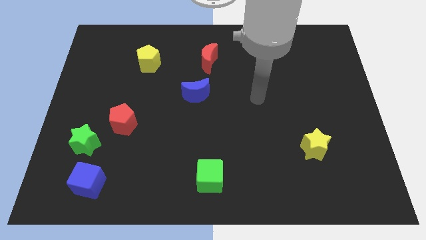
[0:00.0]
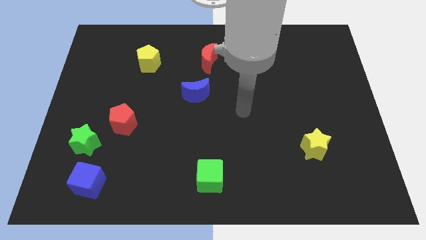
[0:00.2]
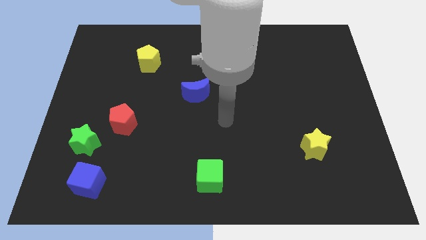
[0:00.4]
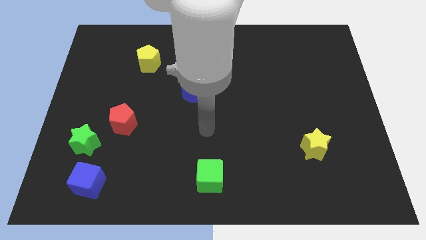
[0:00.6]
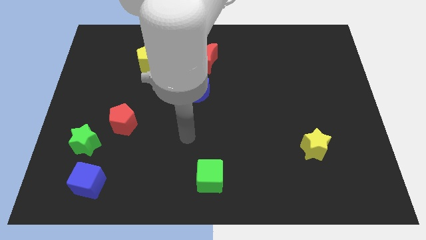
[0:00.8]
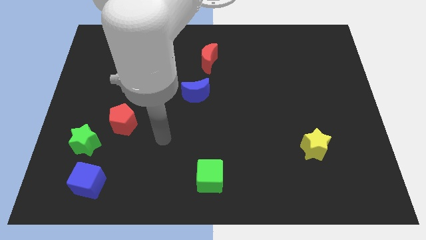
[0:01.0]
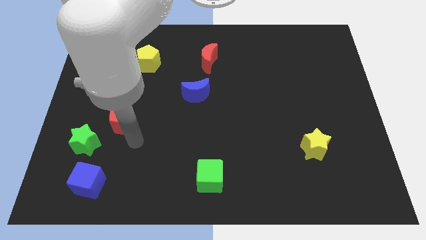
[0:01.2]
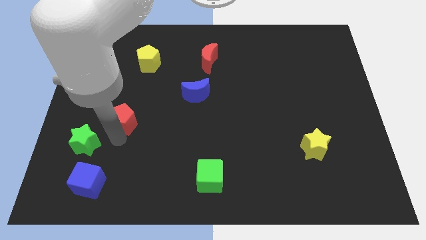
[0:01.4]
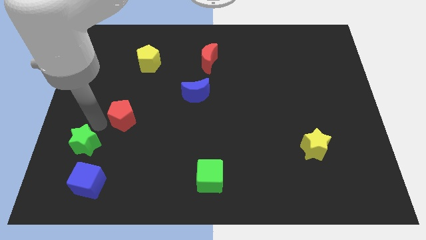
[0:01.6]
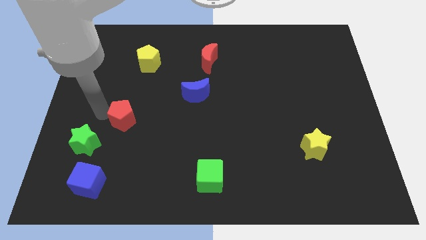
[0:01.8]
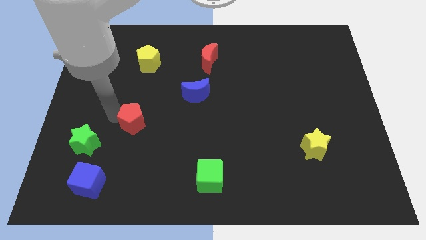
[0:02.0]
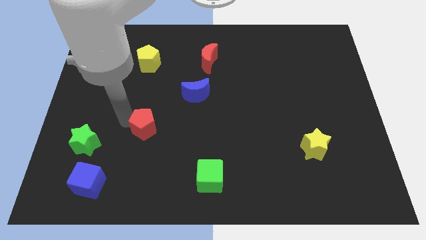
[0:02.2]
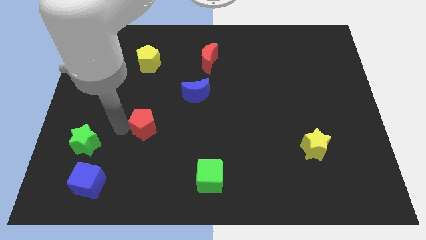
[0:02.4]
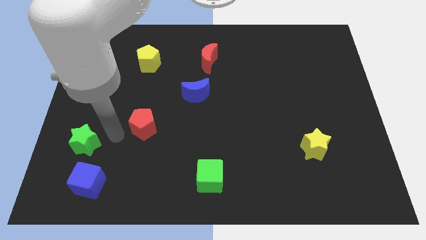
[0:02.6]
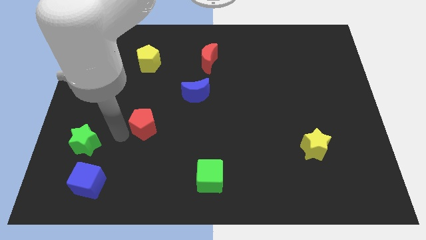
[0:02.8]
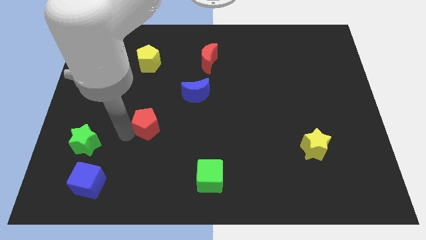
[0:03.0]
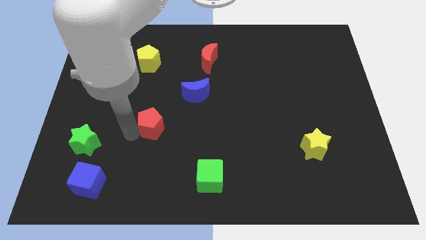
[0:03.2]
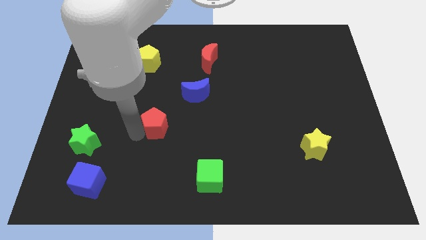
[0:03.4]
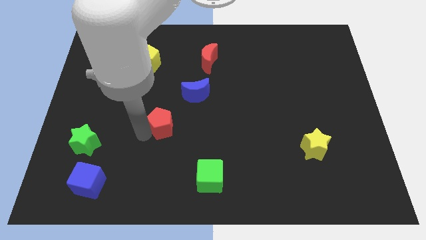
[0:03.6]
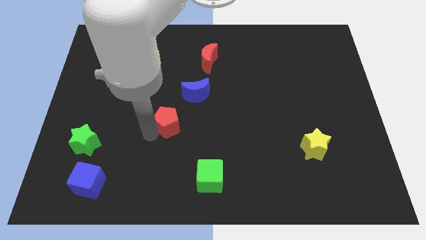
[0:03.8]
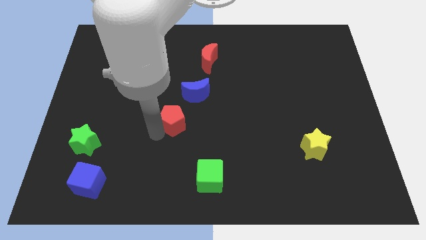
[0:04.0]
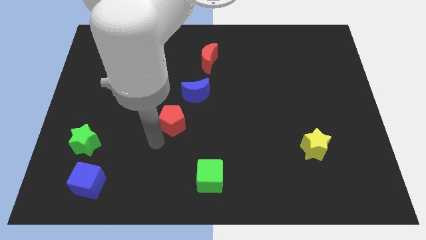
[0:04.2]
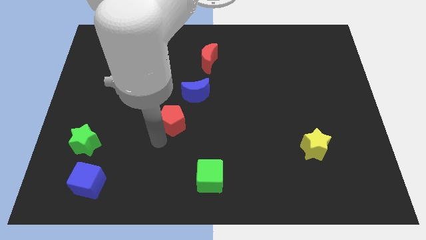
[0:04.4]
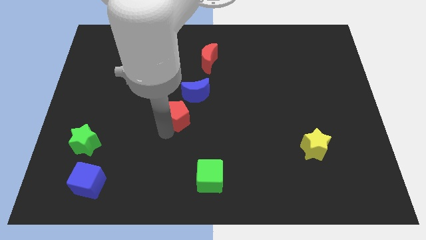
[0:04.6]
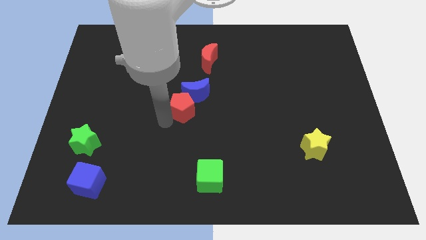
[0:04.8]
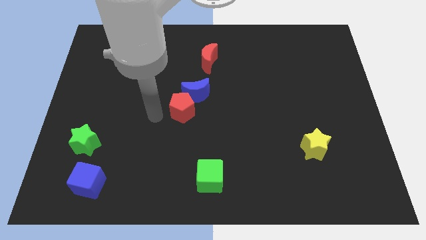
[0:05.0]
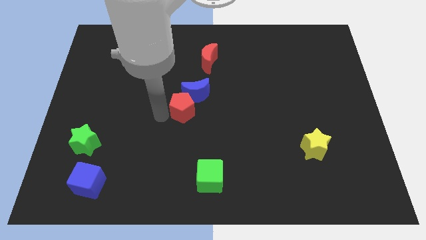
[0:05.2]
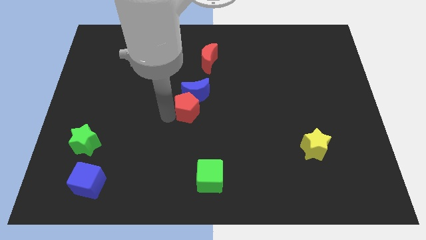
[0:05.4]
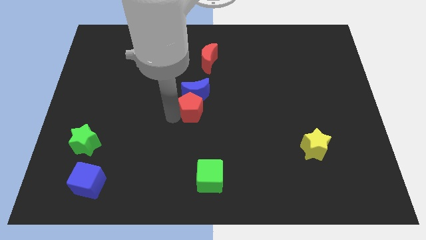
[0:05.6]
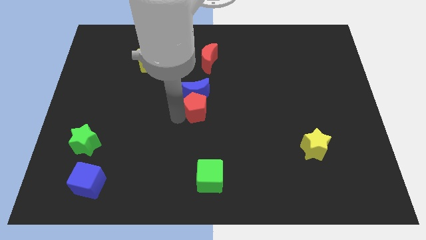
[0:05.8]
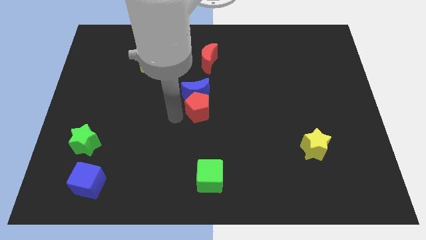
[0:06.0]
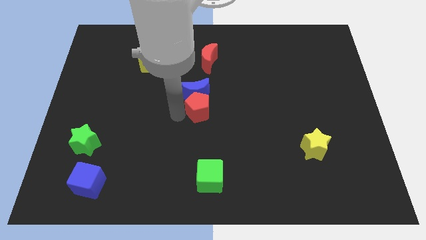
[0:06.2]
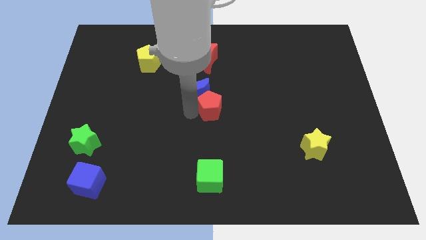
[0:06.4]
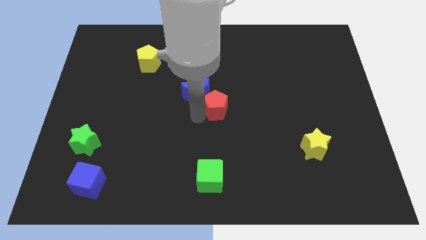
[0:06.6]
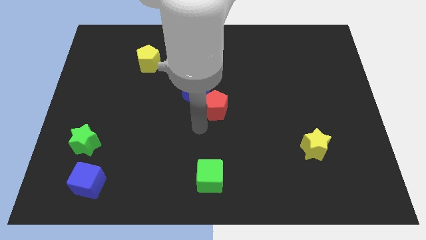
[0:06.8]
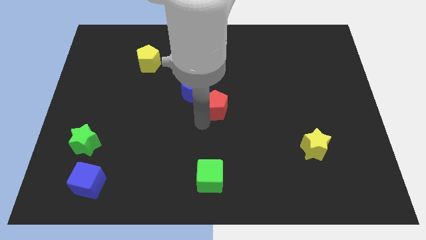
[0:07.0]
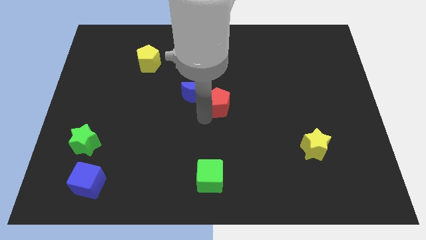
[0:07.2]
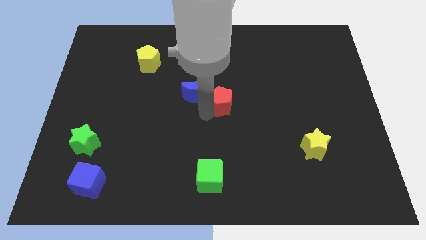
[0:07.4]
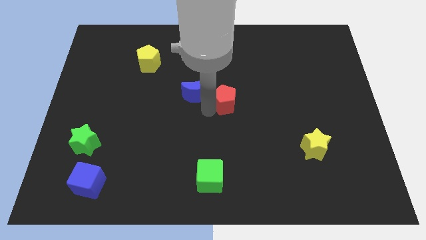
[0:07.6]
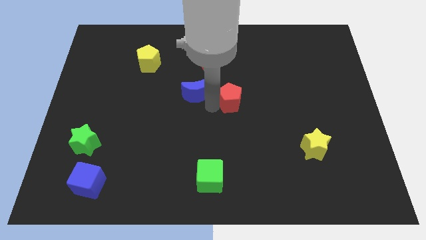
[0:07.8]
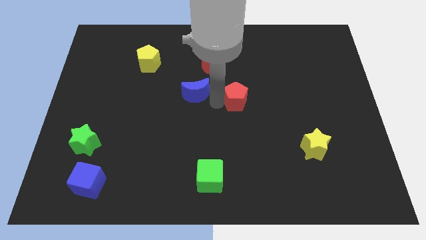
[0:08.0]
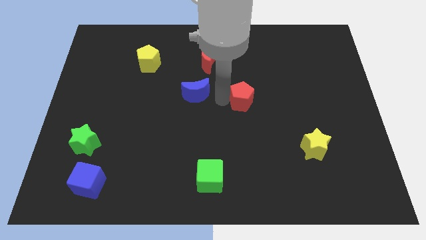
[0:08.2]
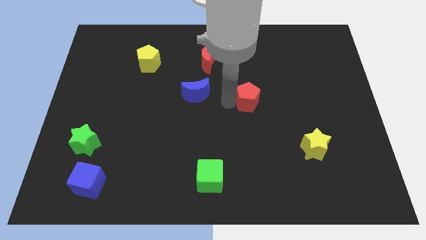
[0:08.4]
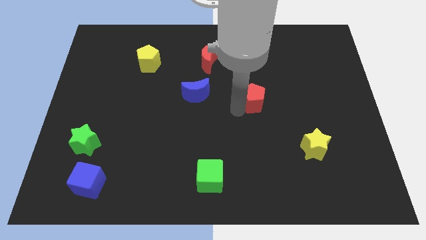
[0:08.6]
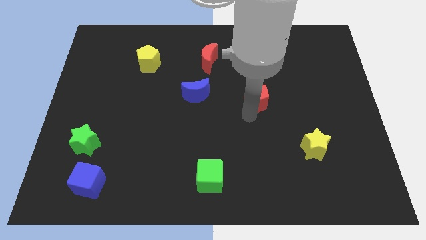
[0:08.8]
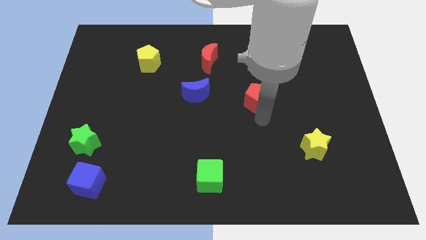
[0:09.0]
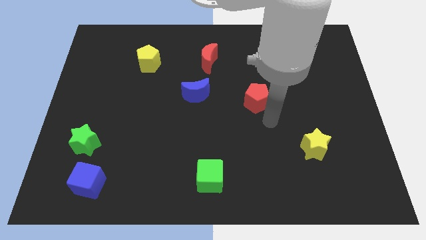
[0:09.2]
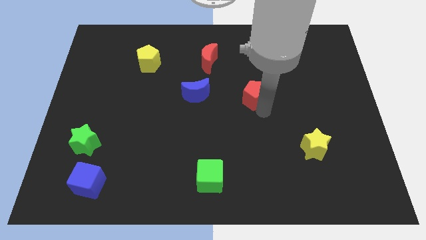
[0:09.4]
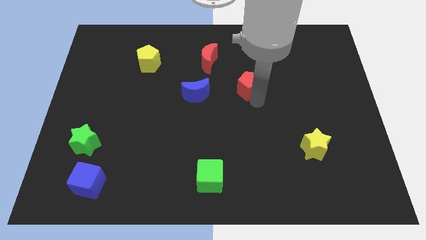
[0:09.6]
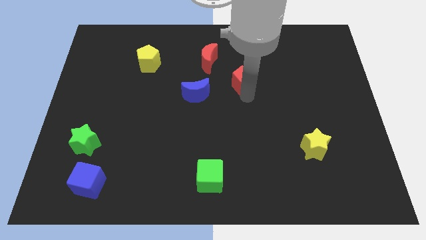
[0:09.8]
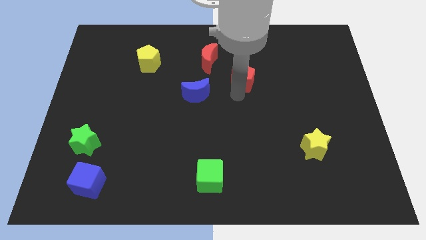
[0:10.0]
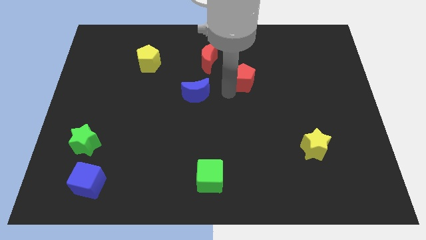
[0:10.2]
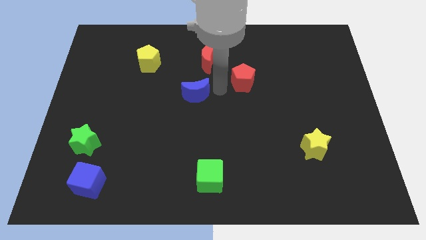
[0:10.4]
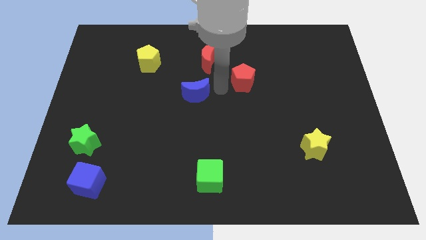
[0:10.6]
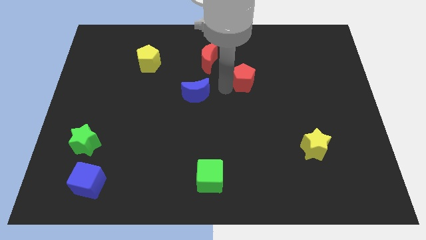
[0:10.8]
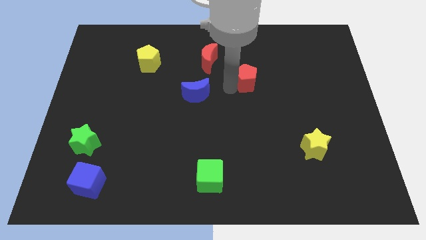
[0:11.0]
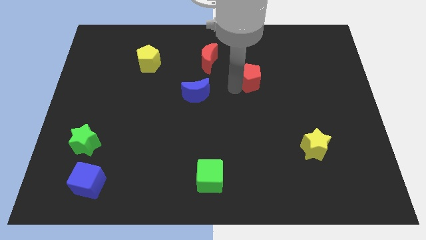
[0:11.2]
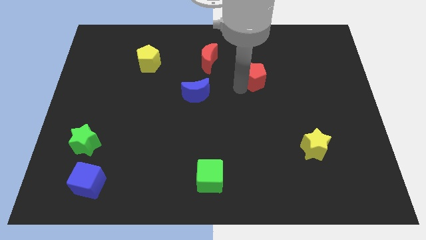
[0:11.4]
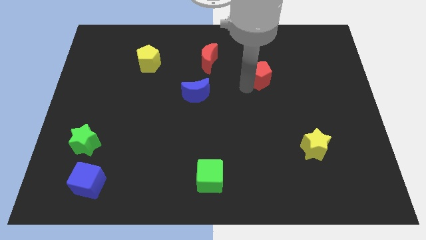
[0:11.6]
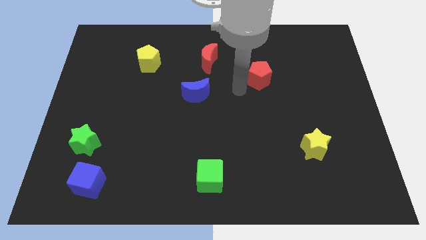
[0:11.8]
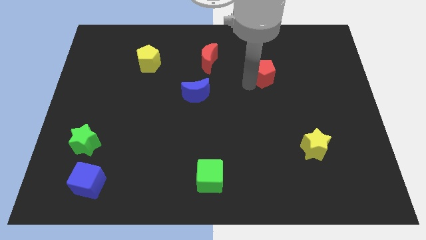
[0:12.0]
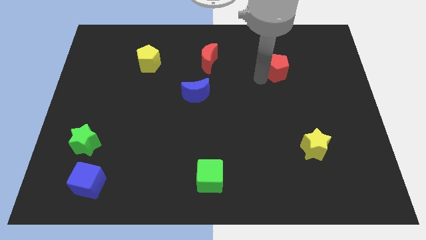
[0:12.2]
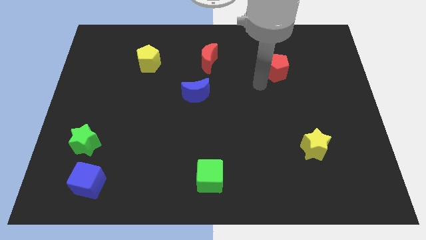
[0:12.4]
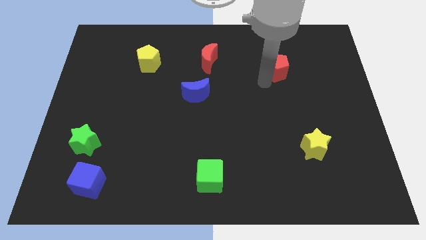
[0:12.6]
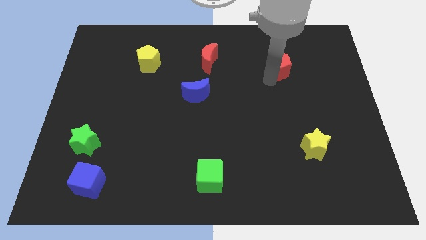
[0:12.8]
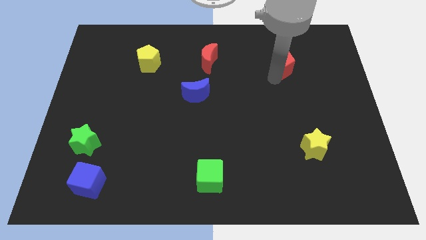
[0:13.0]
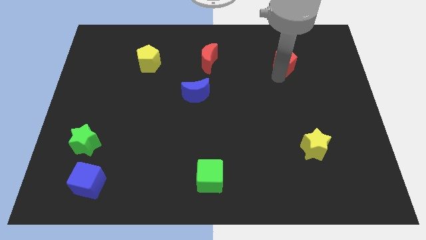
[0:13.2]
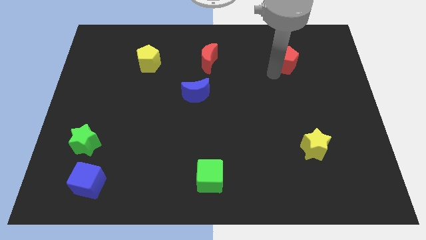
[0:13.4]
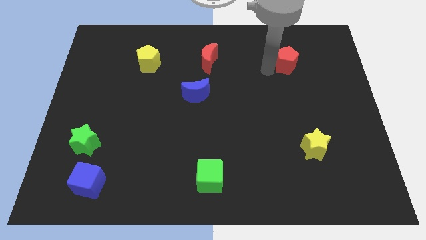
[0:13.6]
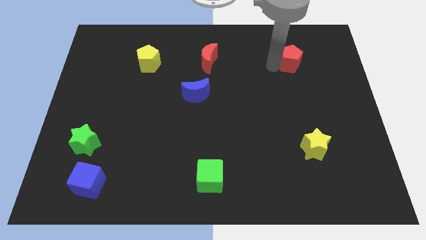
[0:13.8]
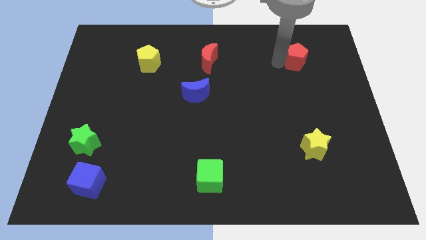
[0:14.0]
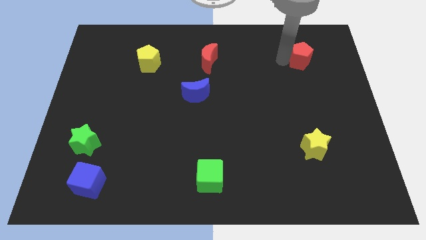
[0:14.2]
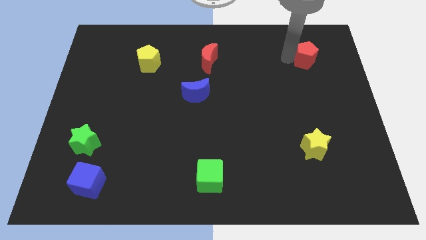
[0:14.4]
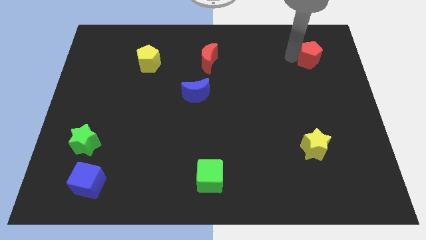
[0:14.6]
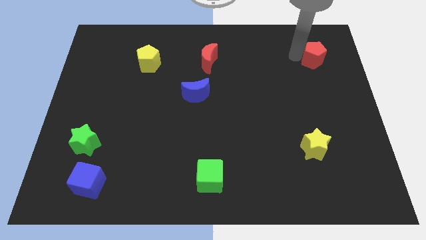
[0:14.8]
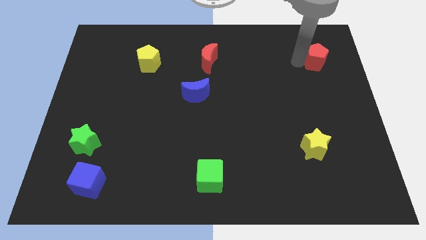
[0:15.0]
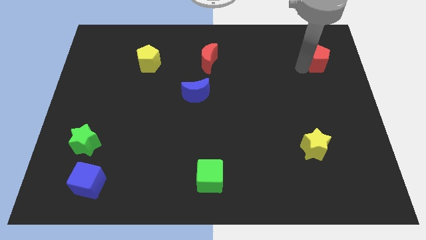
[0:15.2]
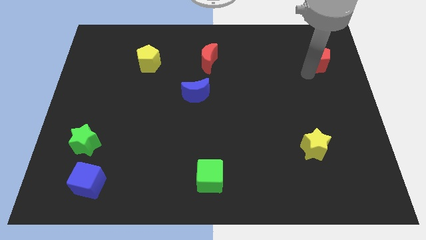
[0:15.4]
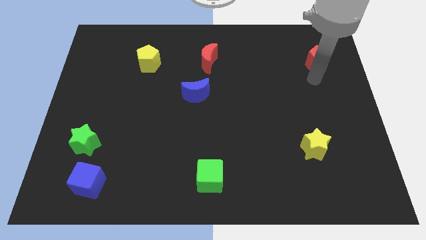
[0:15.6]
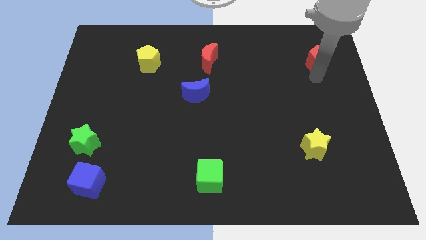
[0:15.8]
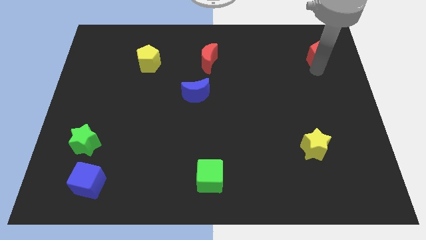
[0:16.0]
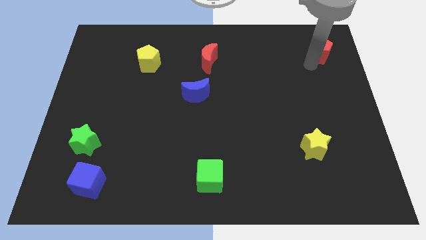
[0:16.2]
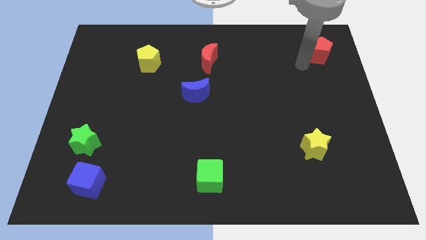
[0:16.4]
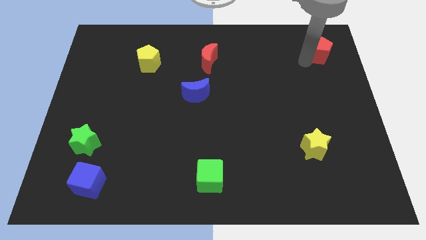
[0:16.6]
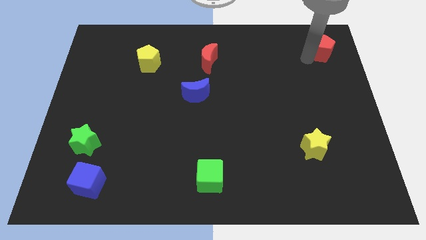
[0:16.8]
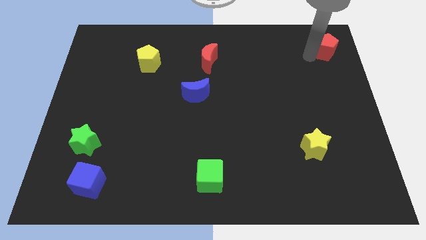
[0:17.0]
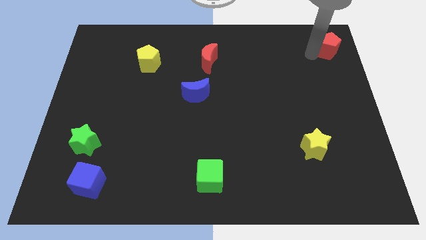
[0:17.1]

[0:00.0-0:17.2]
move the red pentagon to the top right
